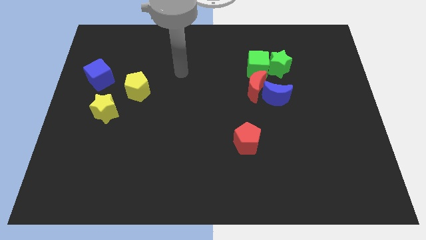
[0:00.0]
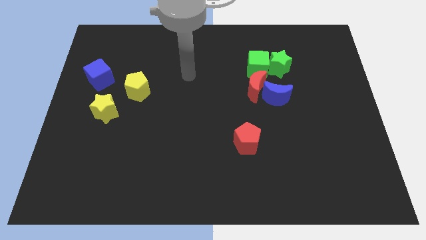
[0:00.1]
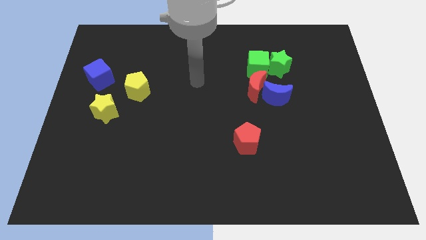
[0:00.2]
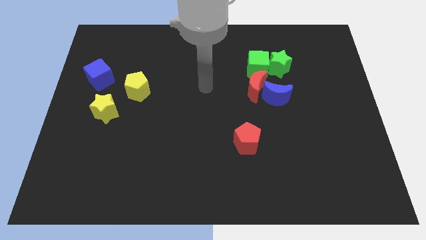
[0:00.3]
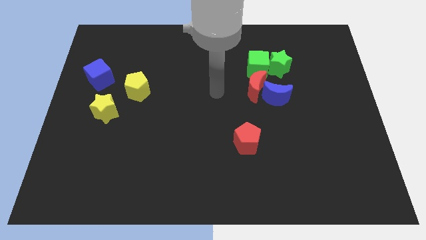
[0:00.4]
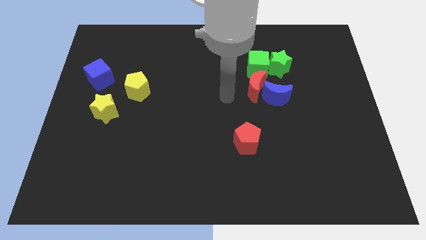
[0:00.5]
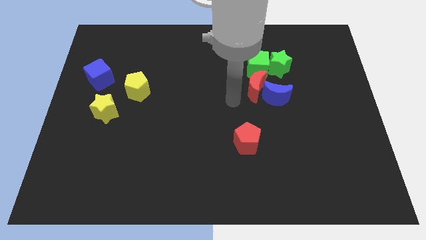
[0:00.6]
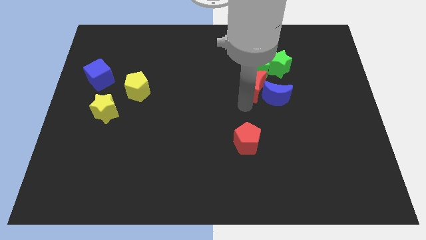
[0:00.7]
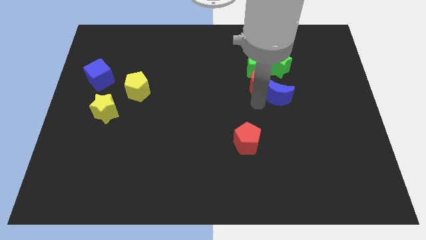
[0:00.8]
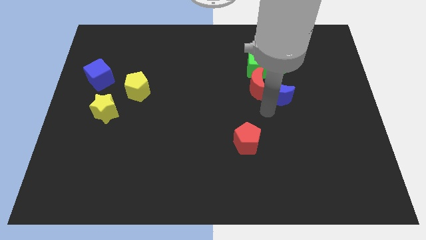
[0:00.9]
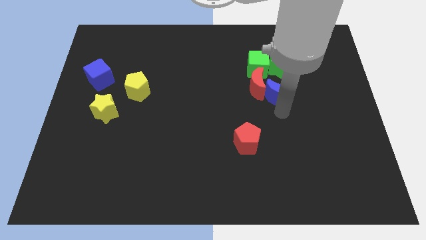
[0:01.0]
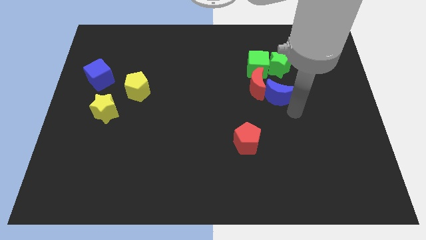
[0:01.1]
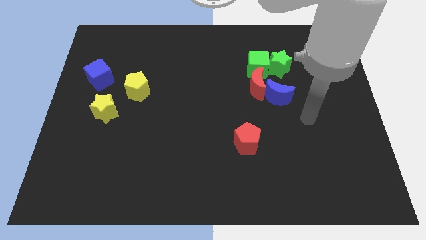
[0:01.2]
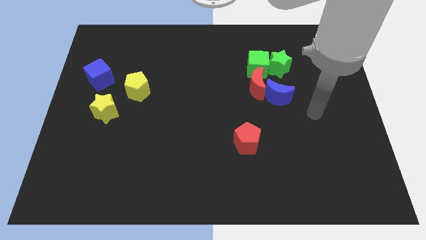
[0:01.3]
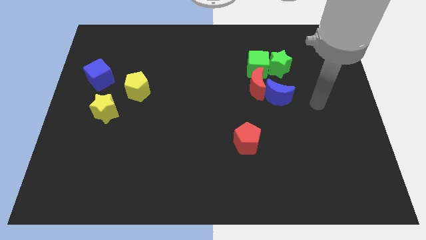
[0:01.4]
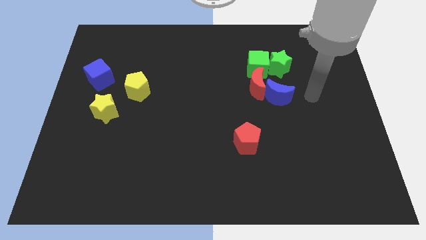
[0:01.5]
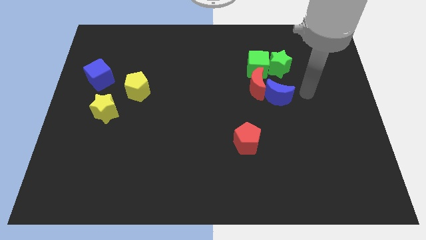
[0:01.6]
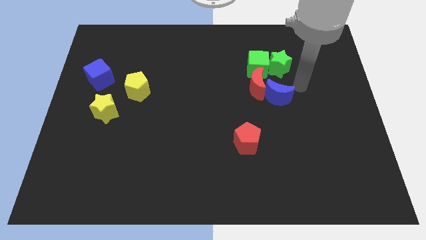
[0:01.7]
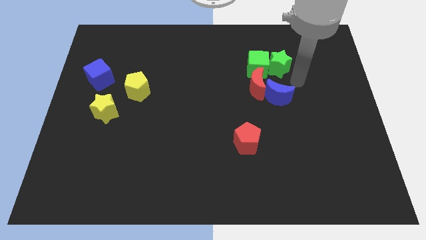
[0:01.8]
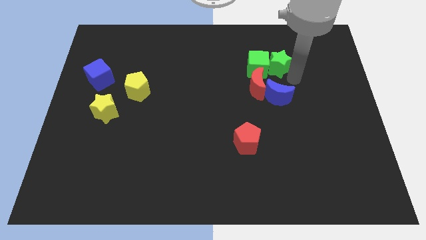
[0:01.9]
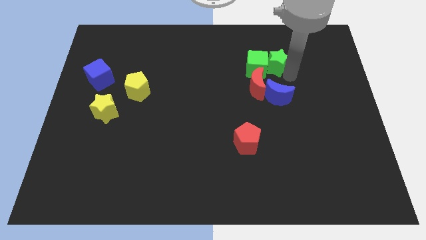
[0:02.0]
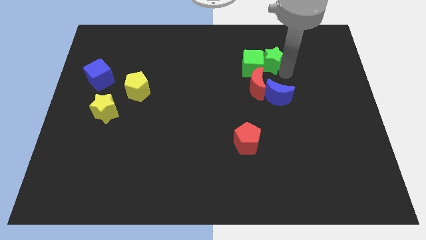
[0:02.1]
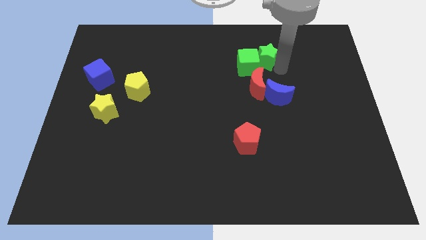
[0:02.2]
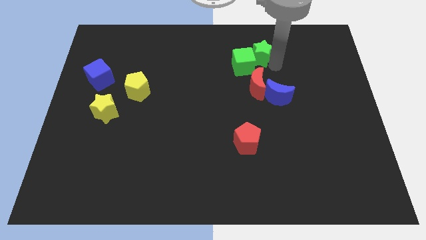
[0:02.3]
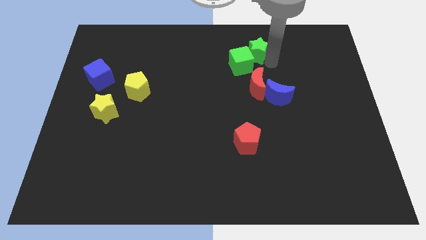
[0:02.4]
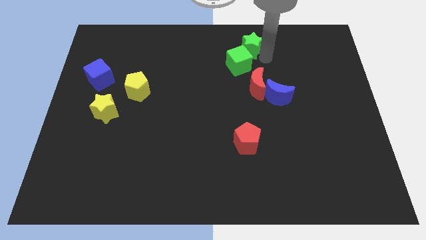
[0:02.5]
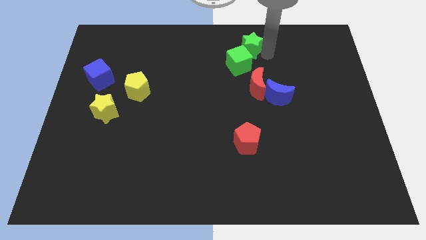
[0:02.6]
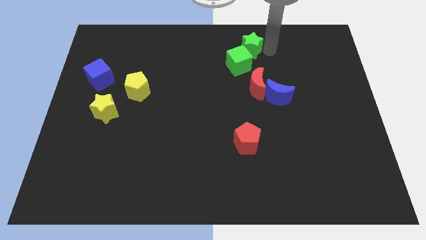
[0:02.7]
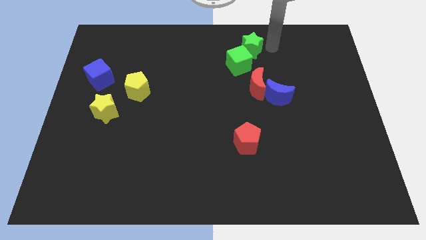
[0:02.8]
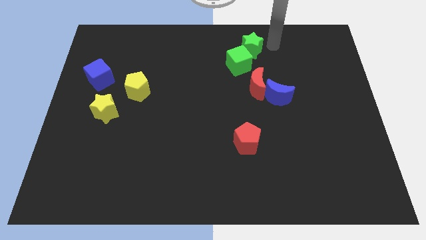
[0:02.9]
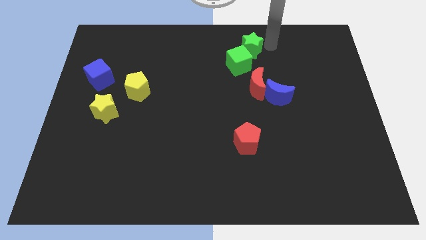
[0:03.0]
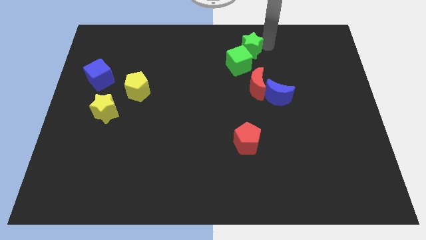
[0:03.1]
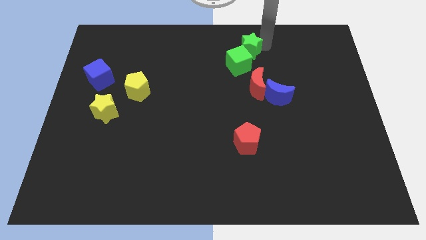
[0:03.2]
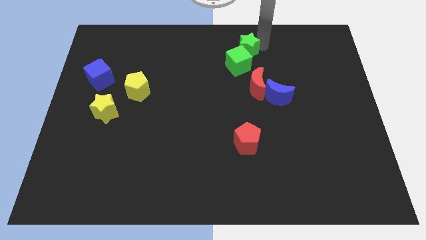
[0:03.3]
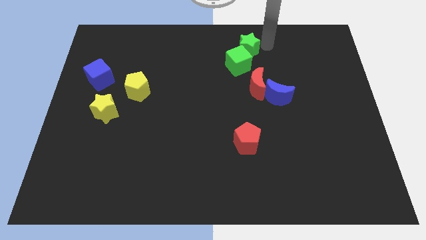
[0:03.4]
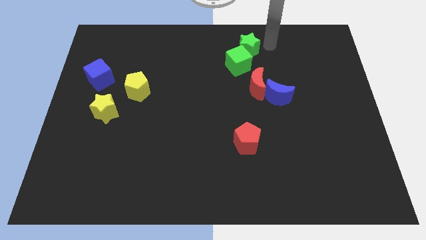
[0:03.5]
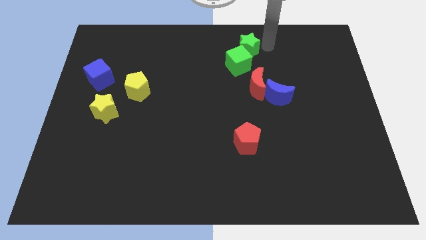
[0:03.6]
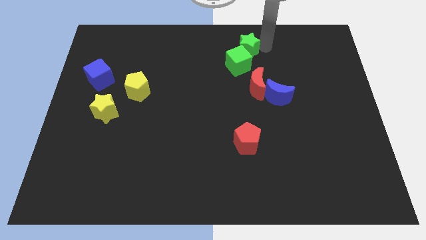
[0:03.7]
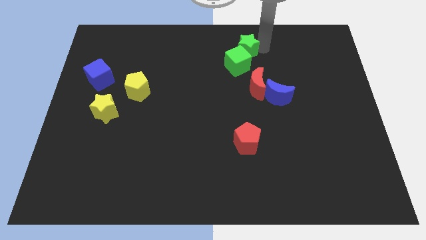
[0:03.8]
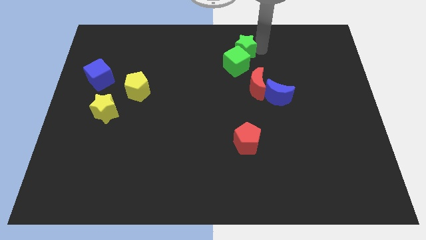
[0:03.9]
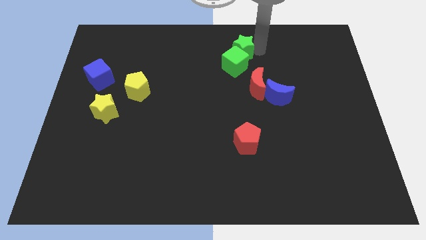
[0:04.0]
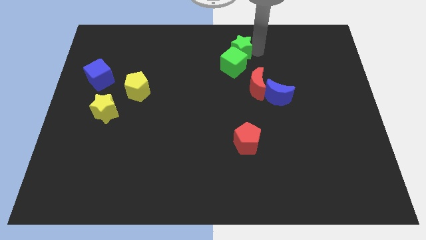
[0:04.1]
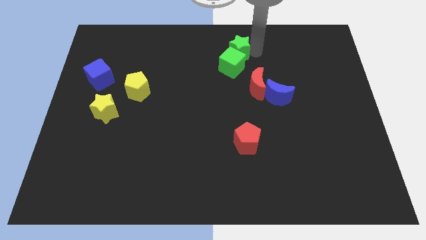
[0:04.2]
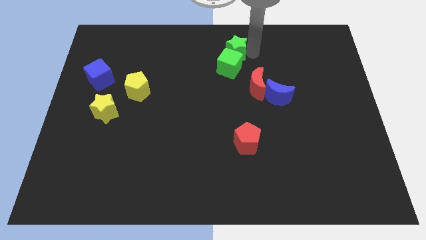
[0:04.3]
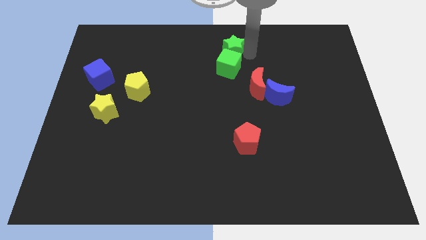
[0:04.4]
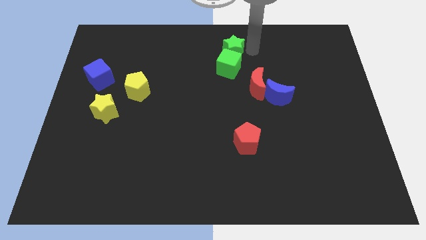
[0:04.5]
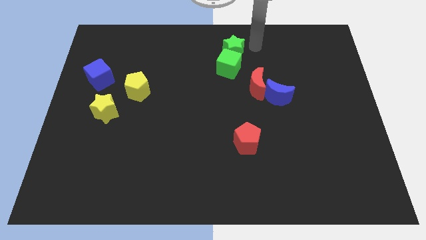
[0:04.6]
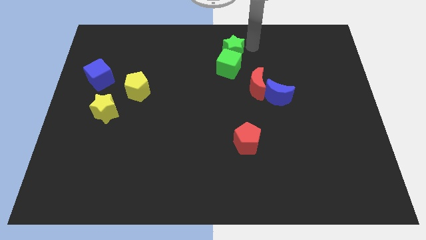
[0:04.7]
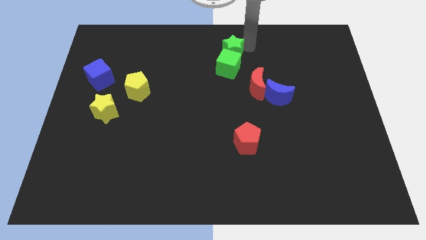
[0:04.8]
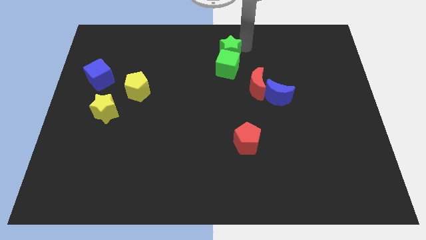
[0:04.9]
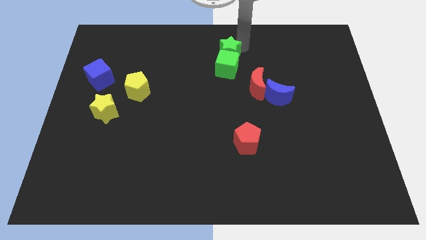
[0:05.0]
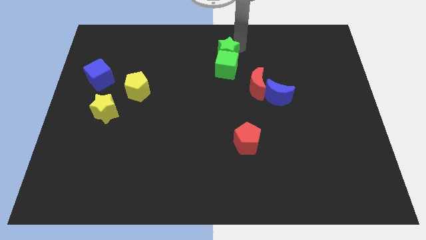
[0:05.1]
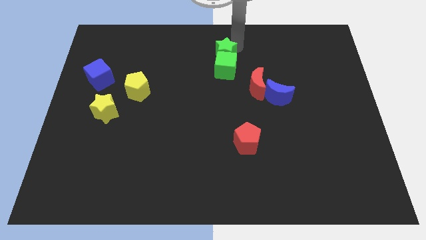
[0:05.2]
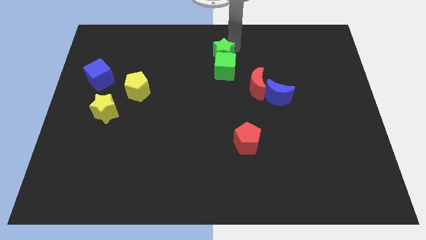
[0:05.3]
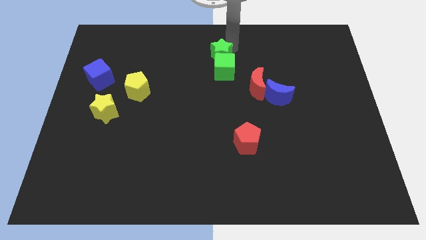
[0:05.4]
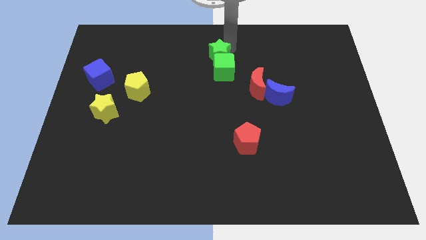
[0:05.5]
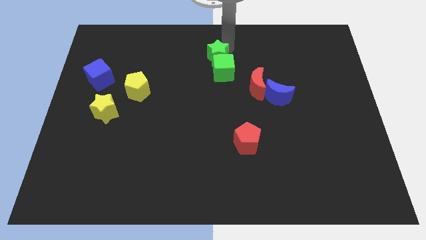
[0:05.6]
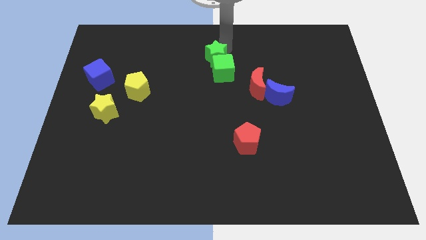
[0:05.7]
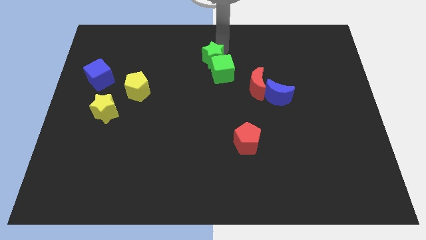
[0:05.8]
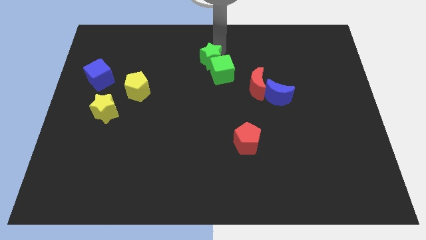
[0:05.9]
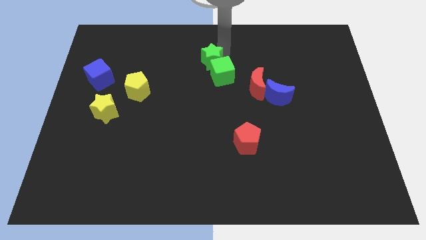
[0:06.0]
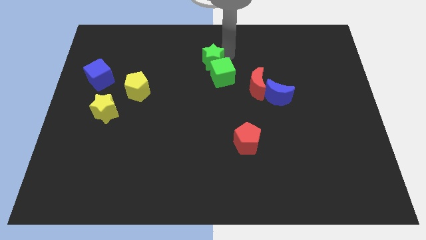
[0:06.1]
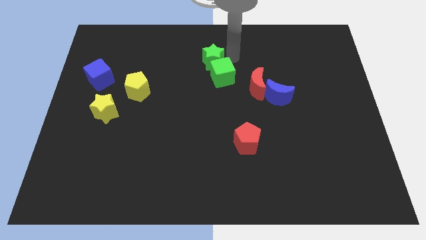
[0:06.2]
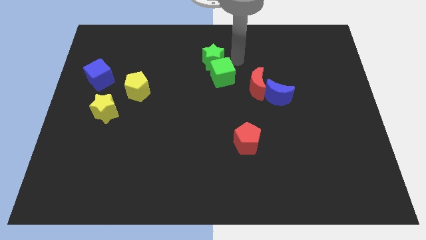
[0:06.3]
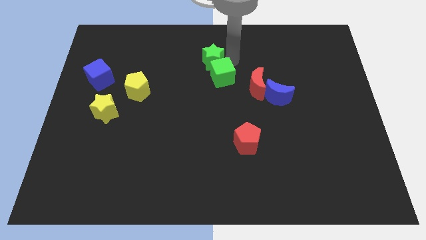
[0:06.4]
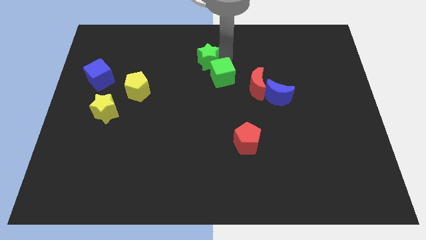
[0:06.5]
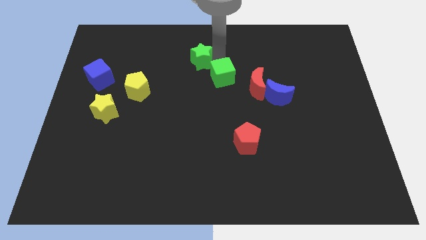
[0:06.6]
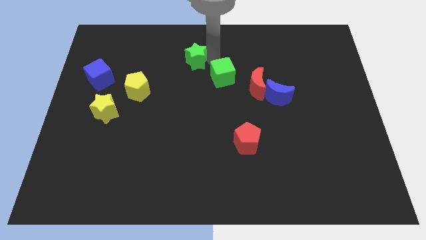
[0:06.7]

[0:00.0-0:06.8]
push the green star to the left

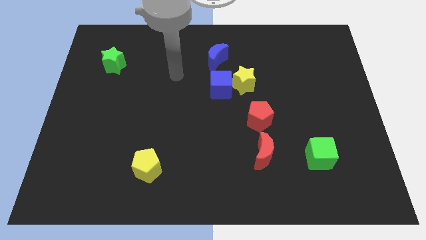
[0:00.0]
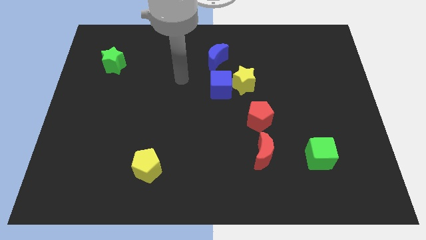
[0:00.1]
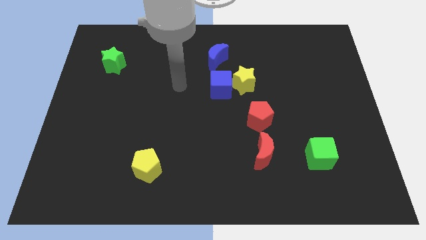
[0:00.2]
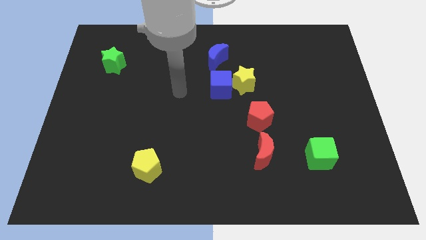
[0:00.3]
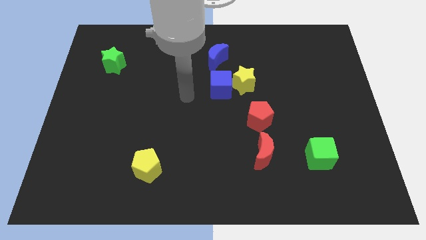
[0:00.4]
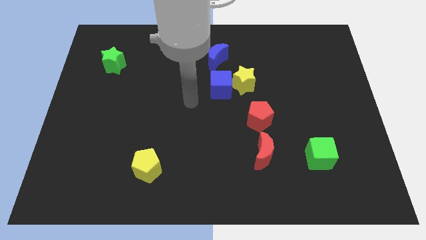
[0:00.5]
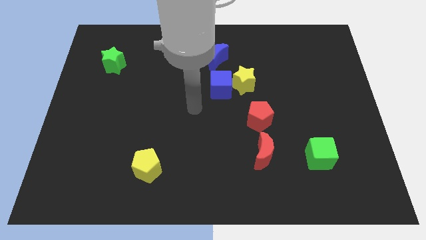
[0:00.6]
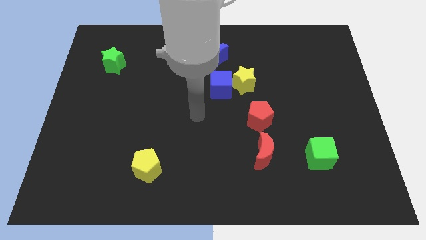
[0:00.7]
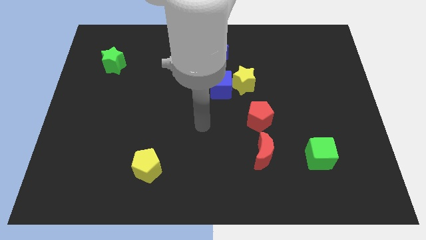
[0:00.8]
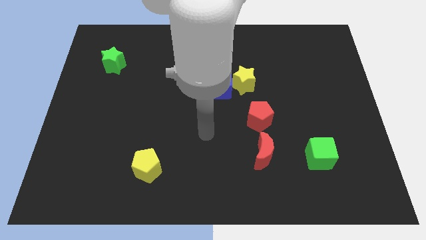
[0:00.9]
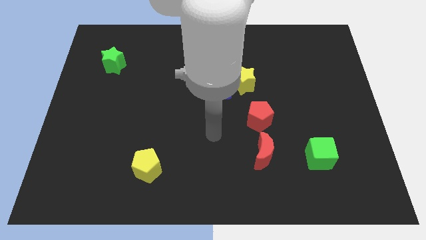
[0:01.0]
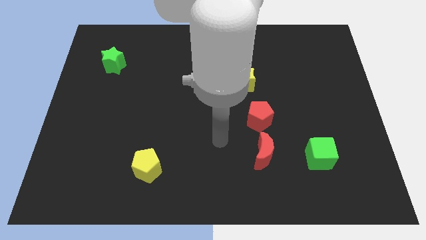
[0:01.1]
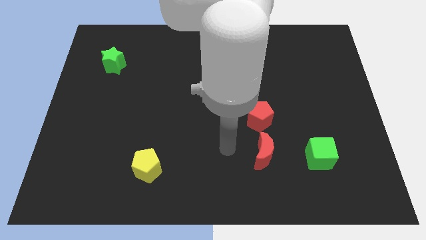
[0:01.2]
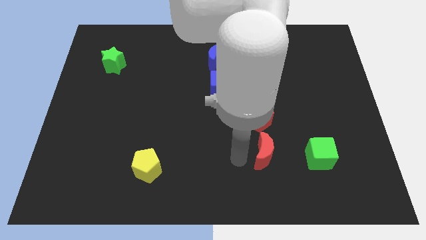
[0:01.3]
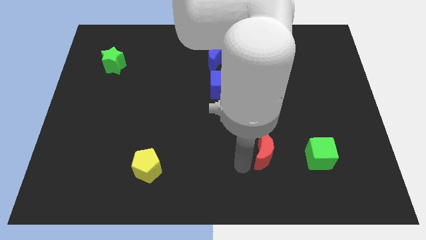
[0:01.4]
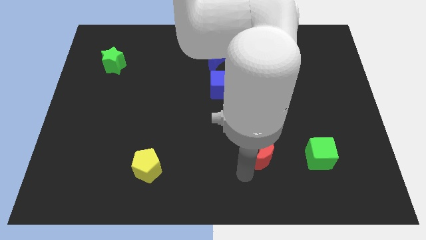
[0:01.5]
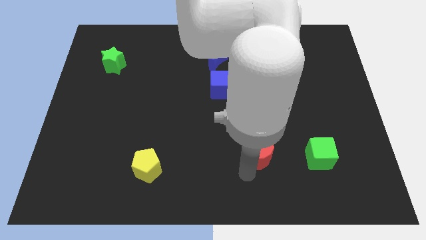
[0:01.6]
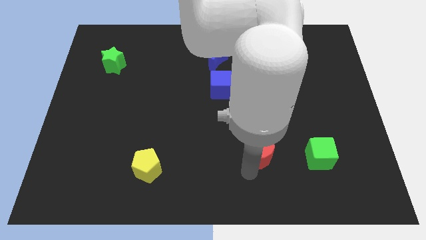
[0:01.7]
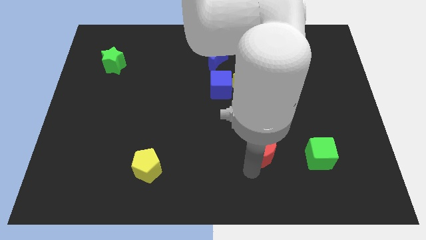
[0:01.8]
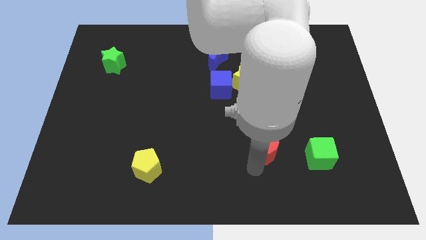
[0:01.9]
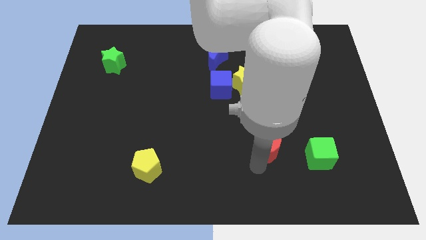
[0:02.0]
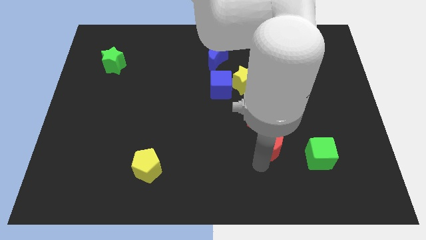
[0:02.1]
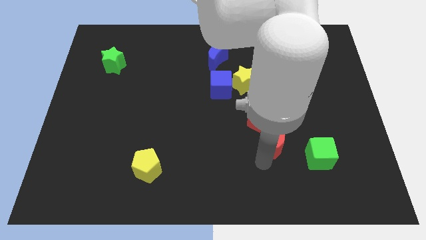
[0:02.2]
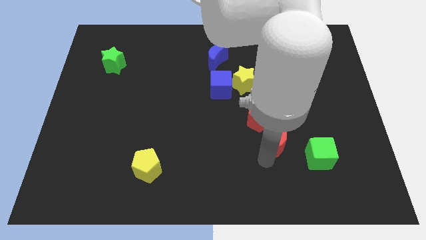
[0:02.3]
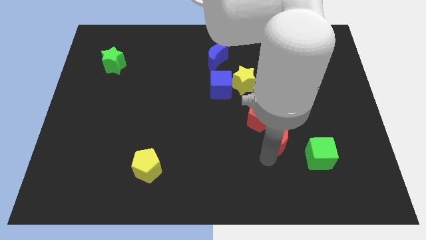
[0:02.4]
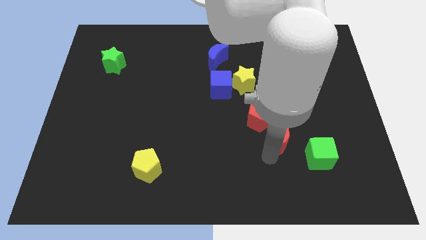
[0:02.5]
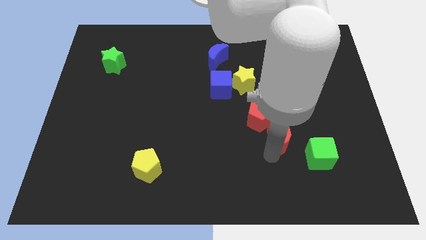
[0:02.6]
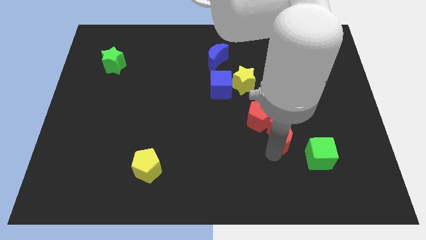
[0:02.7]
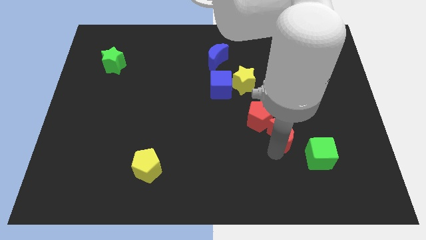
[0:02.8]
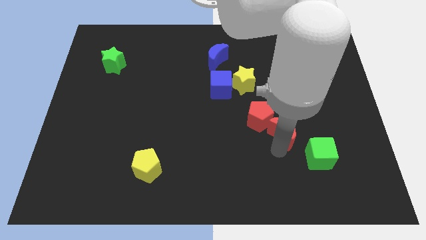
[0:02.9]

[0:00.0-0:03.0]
move the red moon diagonally up and right a little
